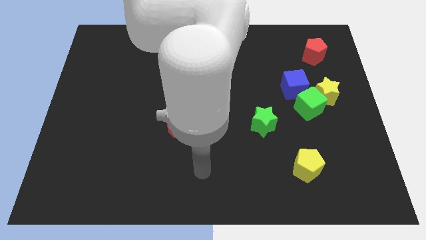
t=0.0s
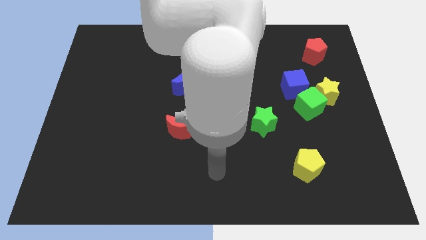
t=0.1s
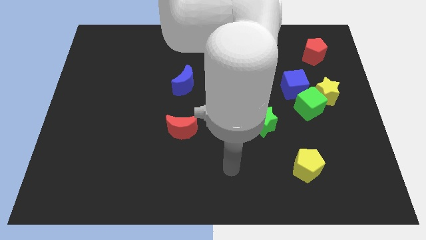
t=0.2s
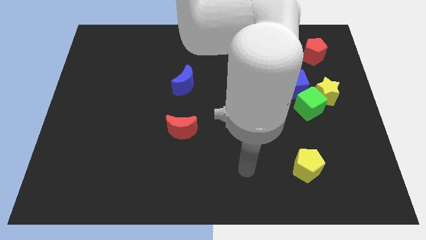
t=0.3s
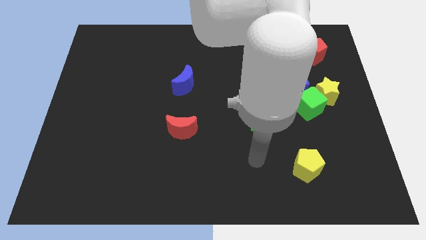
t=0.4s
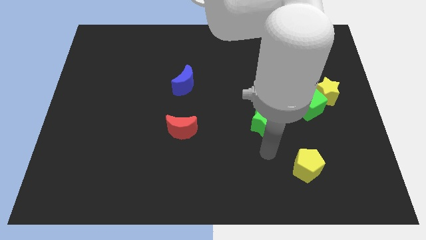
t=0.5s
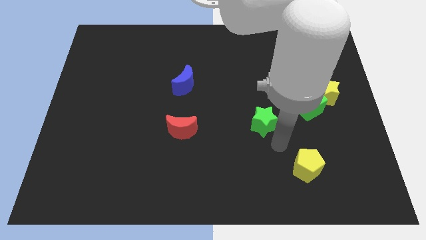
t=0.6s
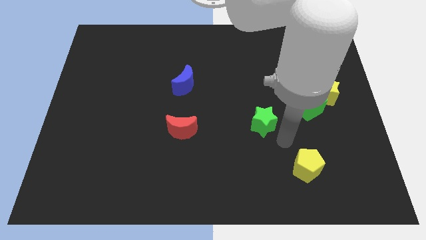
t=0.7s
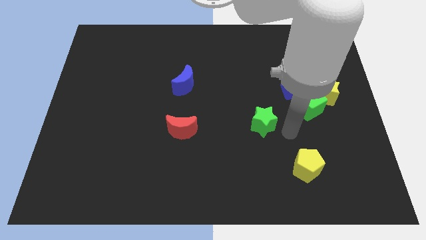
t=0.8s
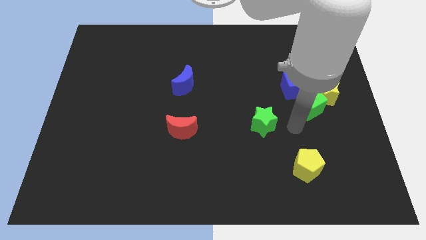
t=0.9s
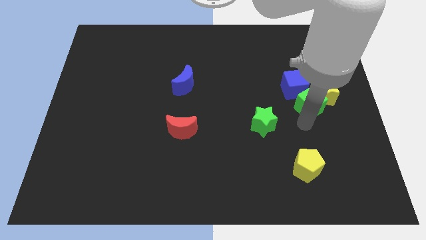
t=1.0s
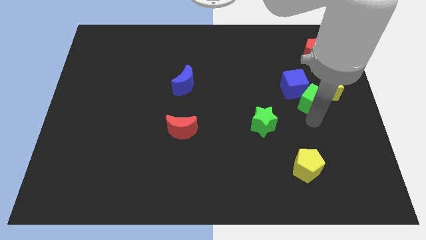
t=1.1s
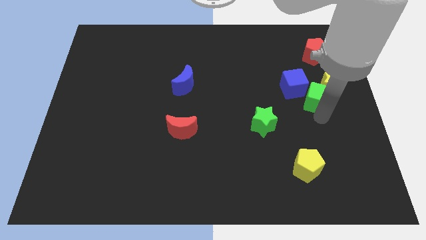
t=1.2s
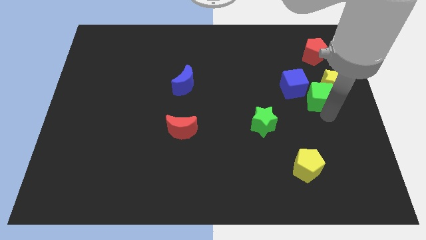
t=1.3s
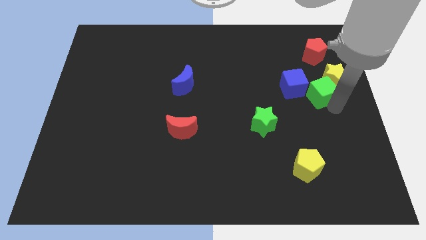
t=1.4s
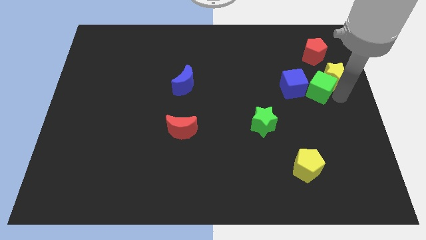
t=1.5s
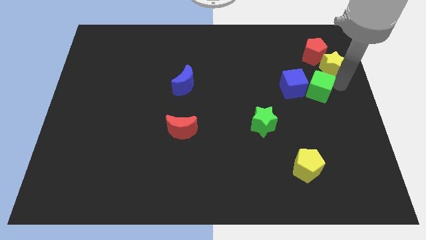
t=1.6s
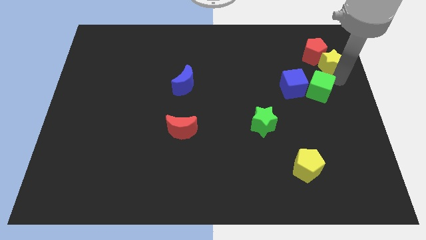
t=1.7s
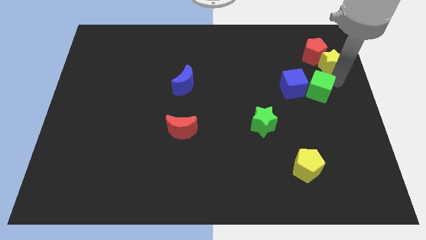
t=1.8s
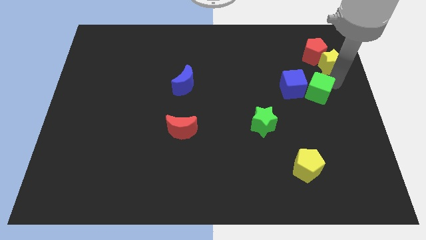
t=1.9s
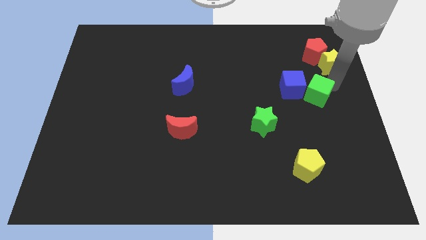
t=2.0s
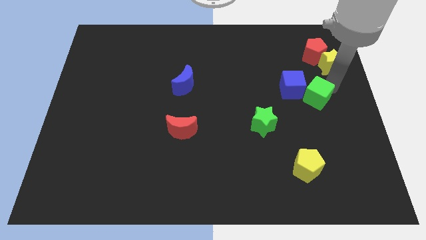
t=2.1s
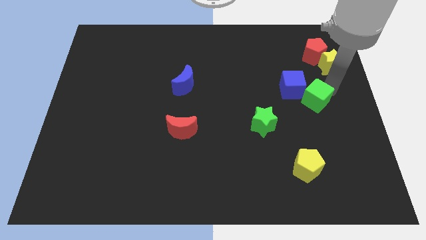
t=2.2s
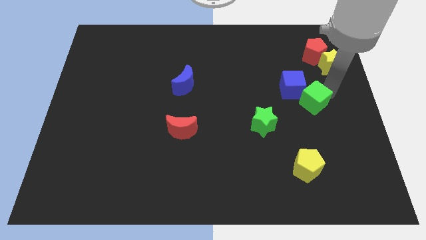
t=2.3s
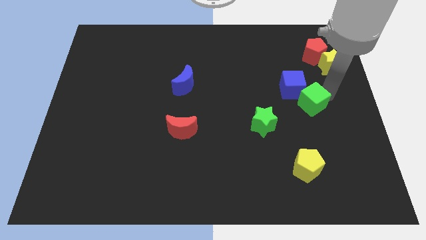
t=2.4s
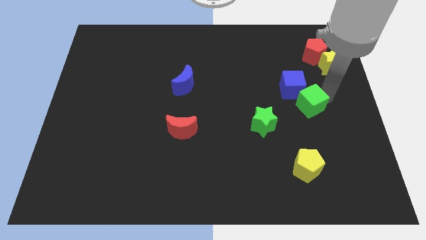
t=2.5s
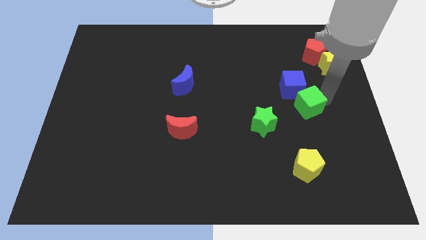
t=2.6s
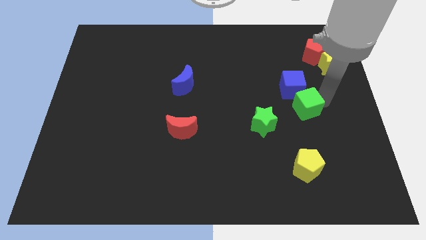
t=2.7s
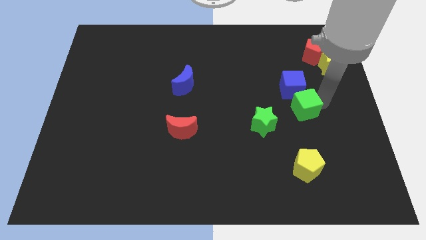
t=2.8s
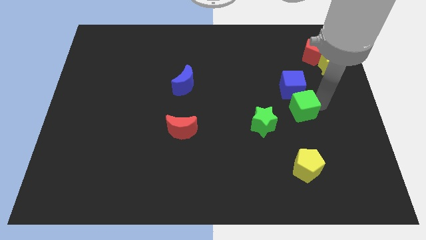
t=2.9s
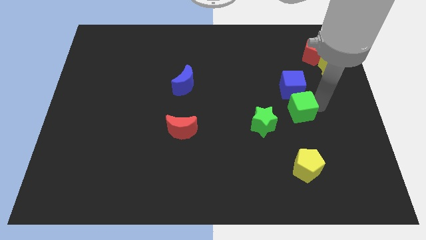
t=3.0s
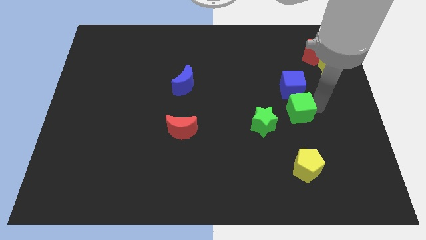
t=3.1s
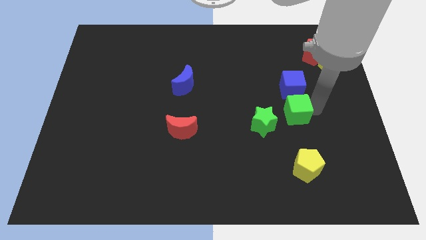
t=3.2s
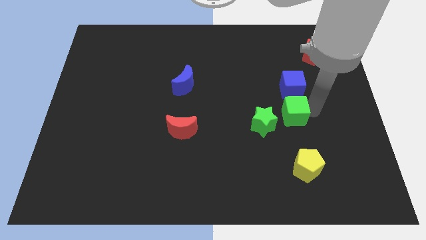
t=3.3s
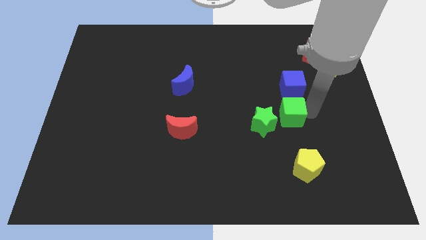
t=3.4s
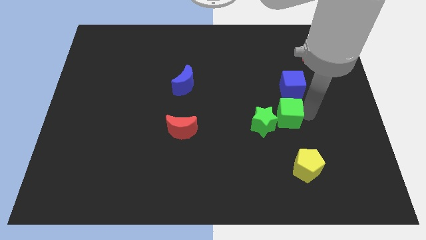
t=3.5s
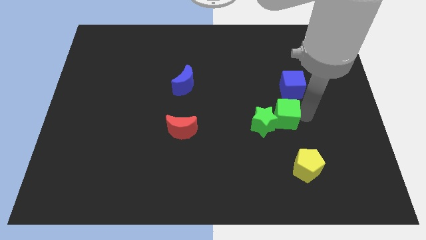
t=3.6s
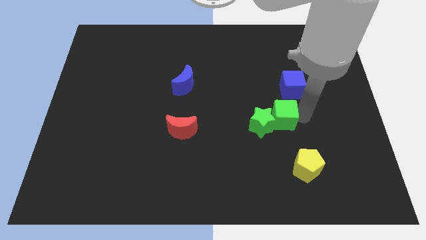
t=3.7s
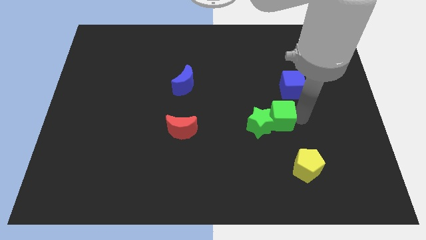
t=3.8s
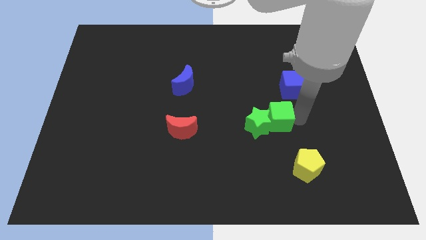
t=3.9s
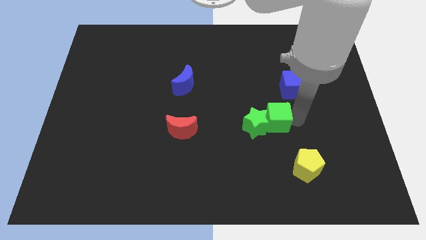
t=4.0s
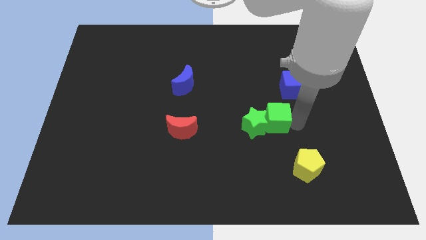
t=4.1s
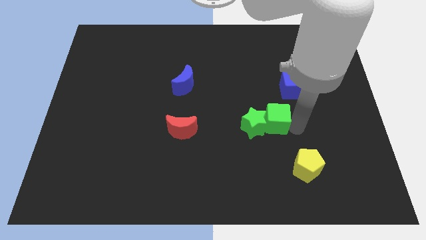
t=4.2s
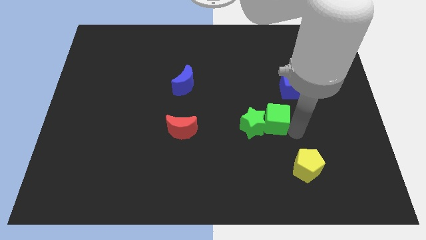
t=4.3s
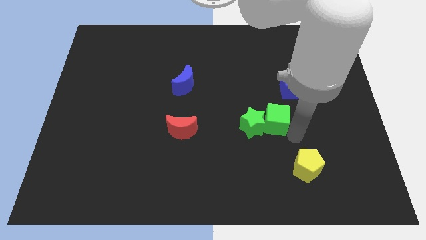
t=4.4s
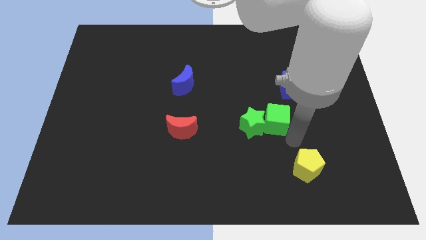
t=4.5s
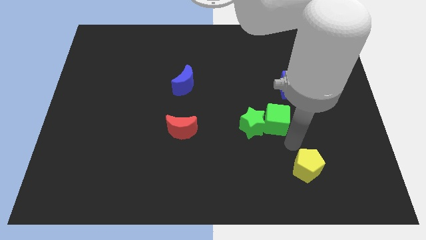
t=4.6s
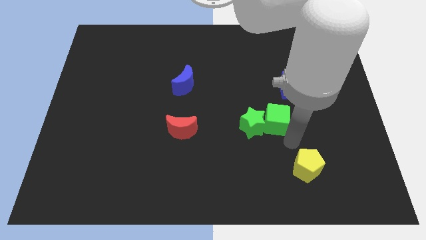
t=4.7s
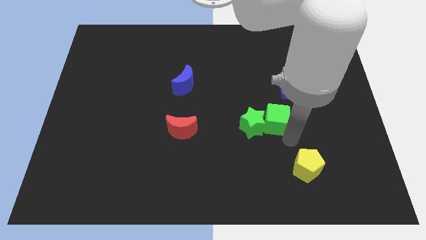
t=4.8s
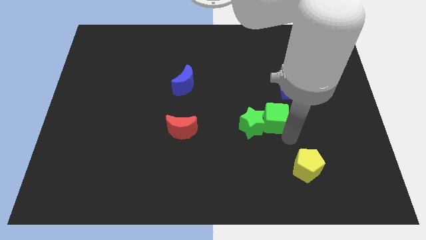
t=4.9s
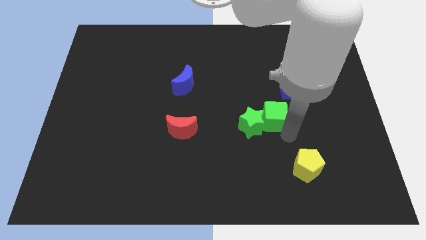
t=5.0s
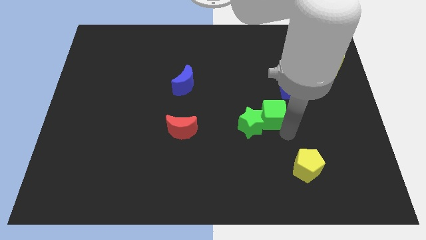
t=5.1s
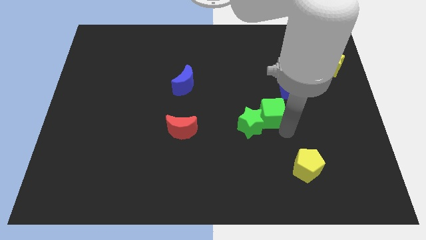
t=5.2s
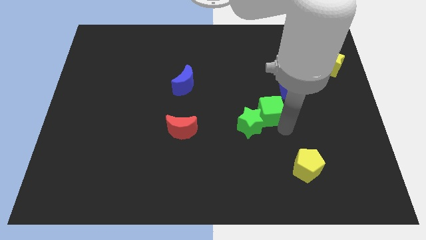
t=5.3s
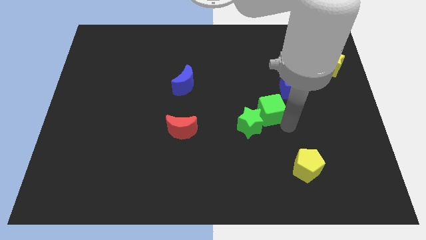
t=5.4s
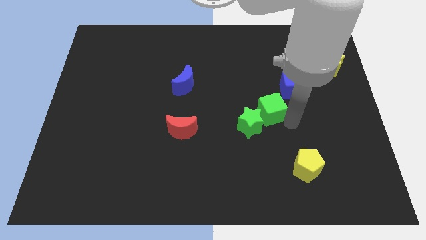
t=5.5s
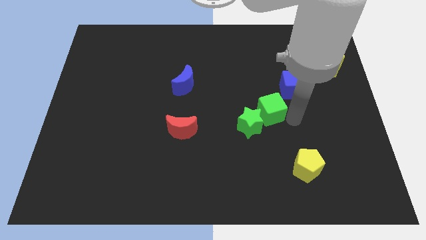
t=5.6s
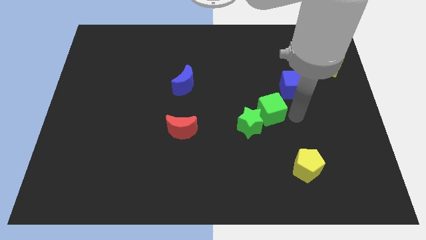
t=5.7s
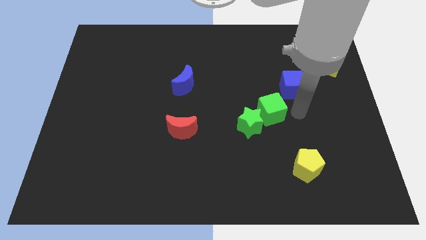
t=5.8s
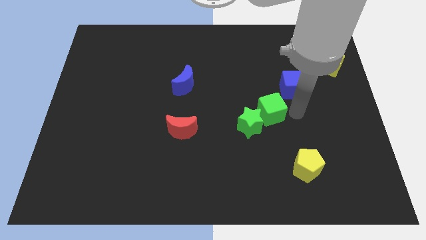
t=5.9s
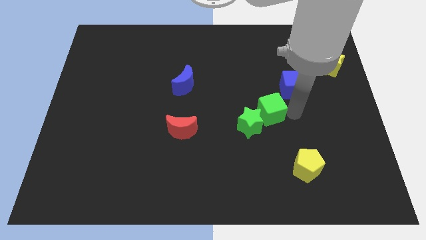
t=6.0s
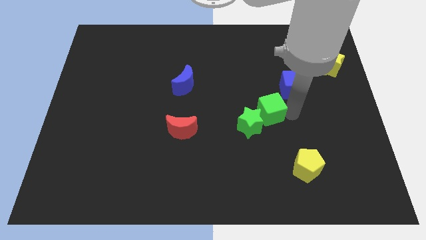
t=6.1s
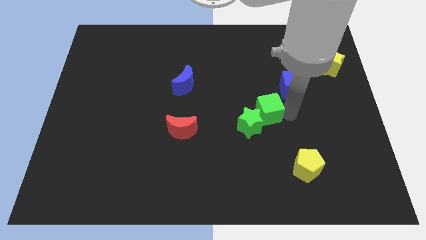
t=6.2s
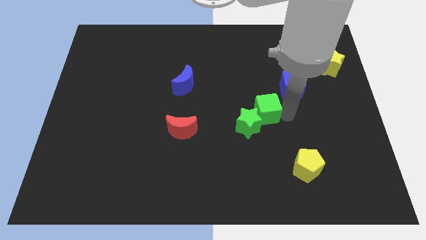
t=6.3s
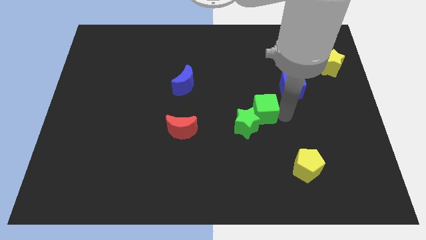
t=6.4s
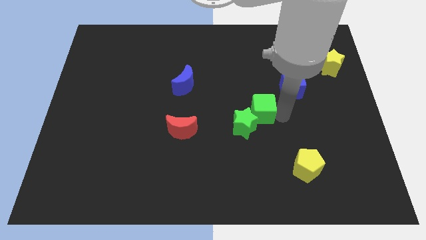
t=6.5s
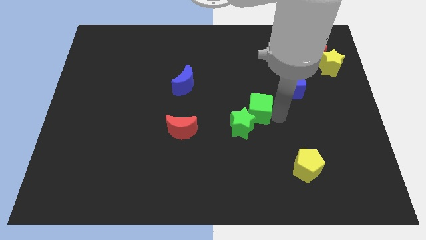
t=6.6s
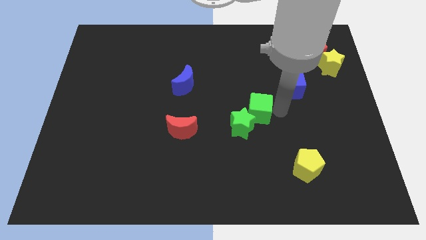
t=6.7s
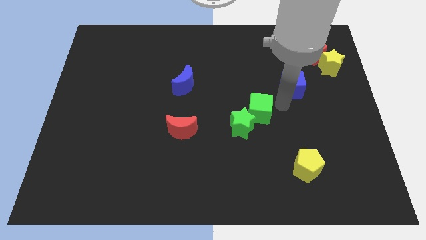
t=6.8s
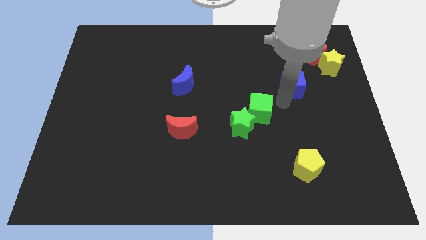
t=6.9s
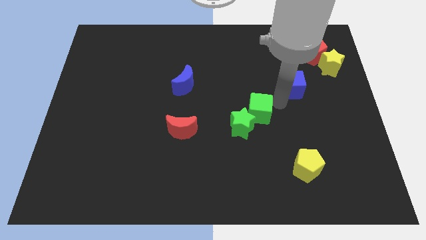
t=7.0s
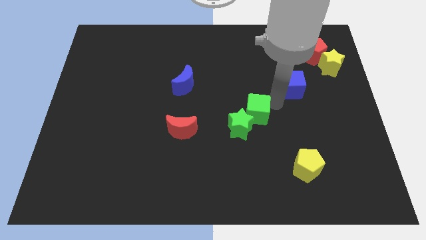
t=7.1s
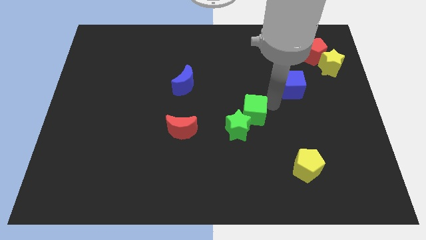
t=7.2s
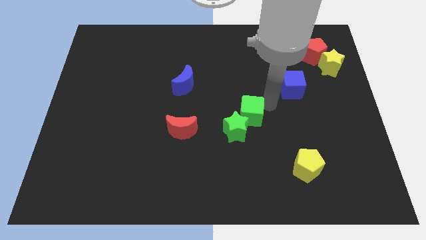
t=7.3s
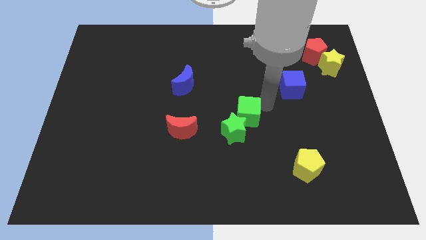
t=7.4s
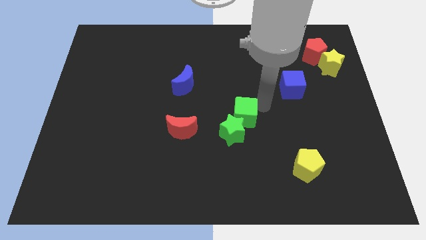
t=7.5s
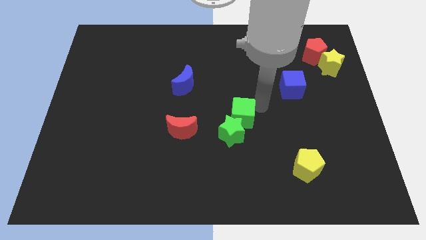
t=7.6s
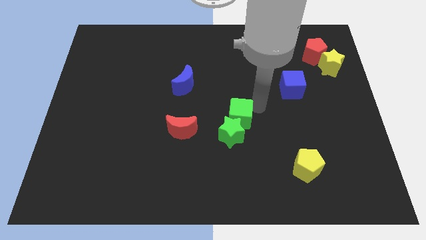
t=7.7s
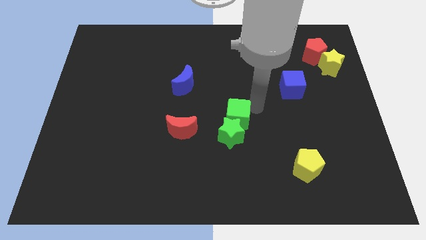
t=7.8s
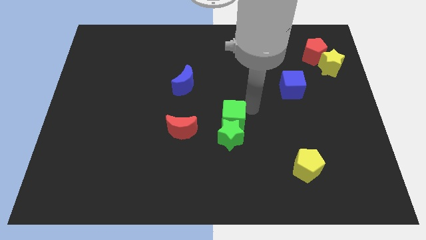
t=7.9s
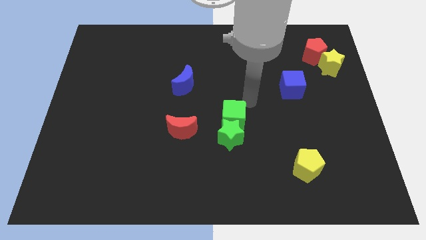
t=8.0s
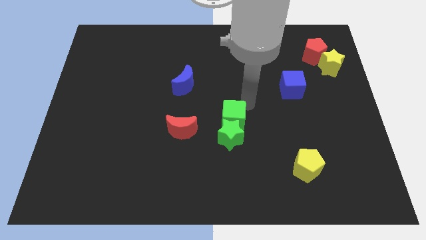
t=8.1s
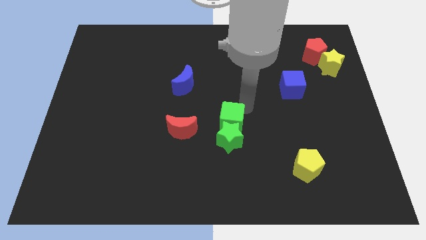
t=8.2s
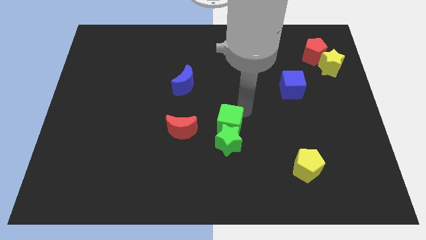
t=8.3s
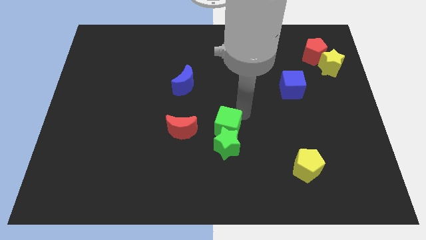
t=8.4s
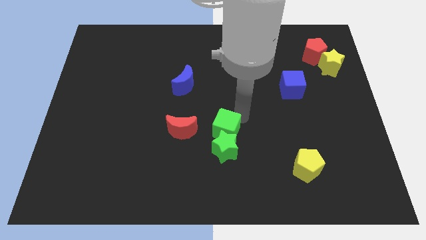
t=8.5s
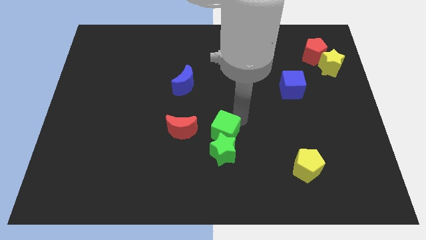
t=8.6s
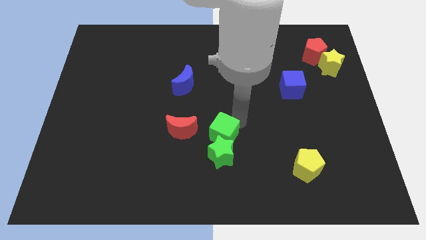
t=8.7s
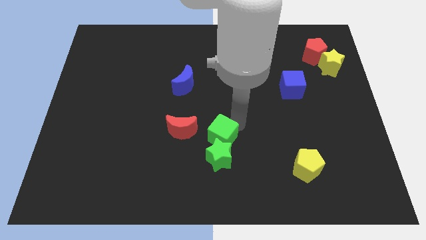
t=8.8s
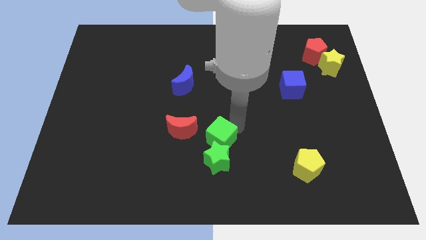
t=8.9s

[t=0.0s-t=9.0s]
push the green cube to the bottom right side of the red moon
